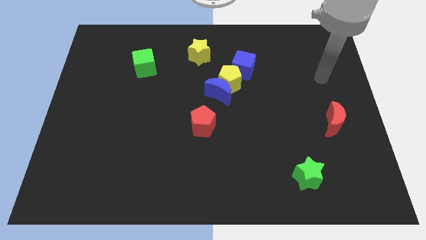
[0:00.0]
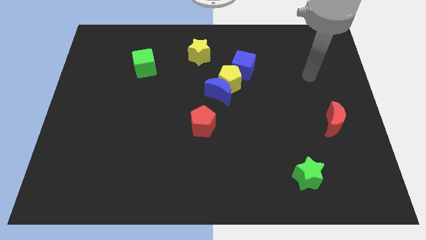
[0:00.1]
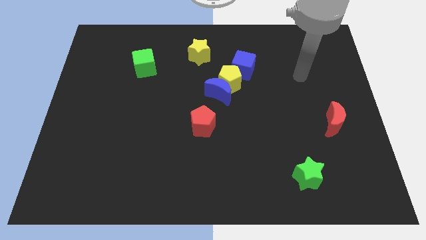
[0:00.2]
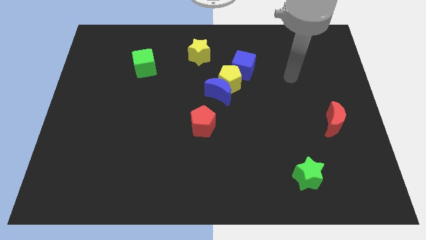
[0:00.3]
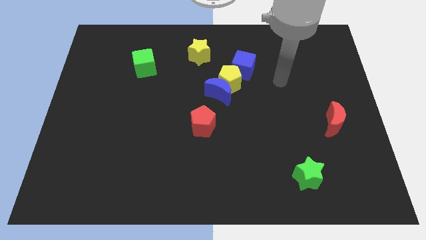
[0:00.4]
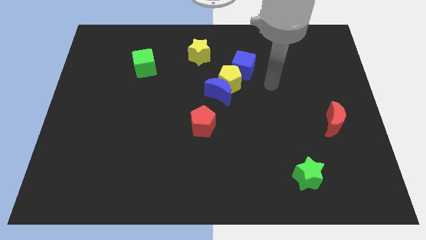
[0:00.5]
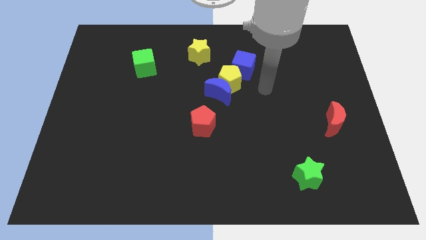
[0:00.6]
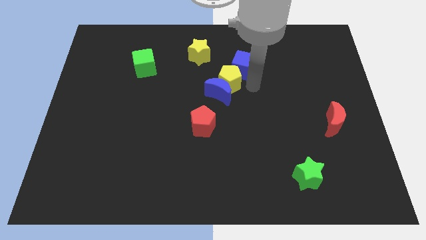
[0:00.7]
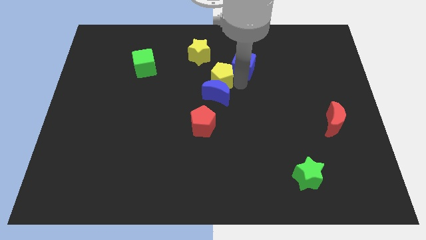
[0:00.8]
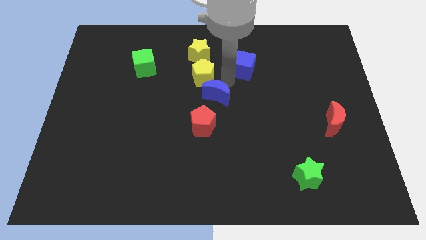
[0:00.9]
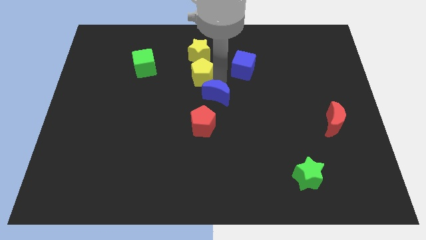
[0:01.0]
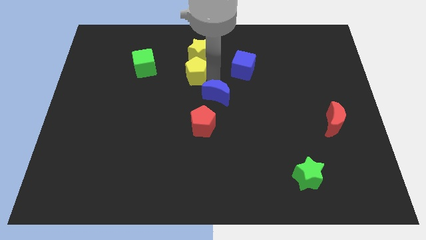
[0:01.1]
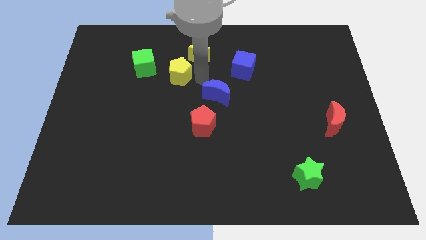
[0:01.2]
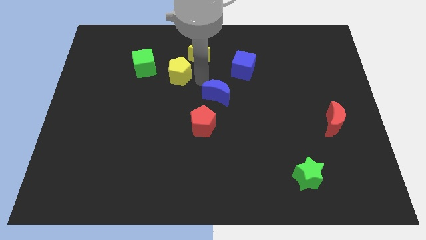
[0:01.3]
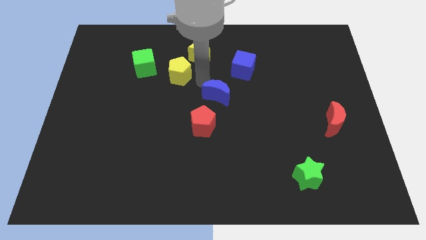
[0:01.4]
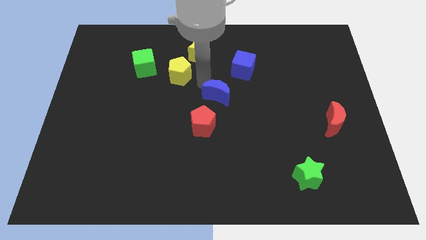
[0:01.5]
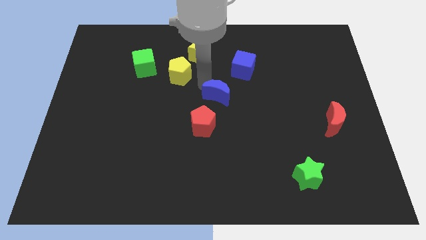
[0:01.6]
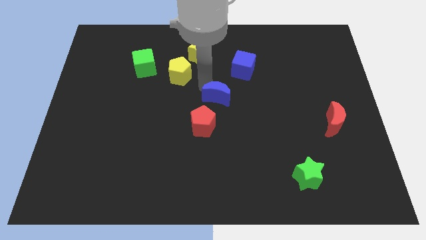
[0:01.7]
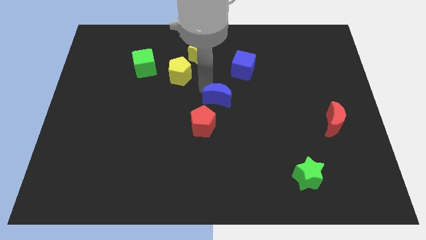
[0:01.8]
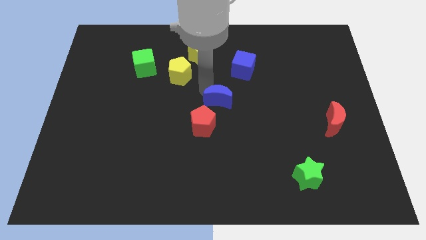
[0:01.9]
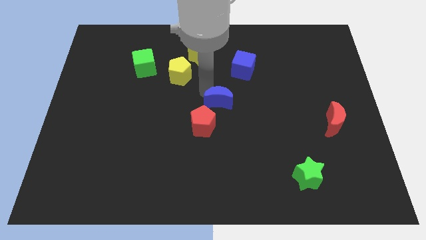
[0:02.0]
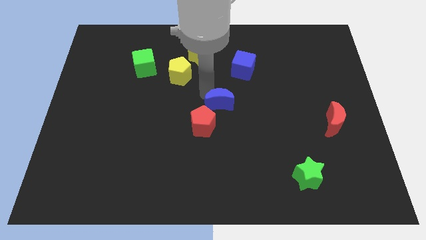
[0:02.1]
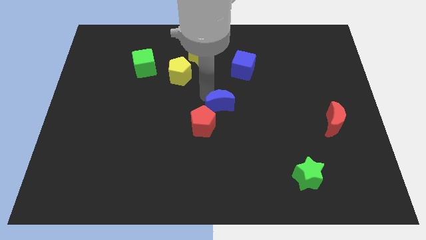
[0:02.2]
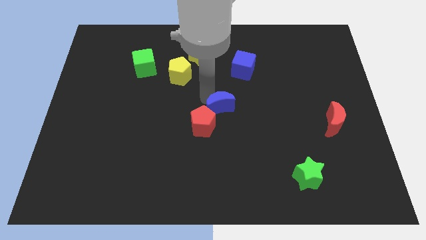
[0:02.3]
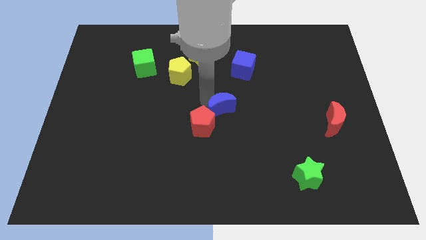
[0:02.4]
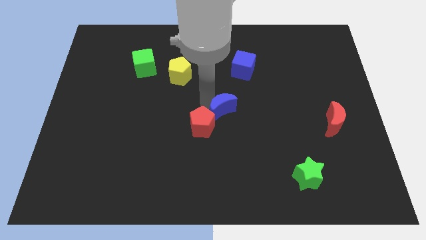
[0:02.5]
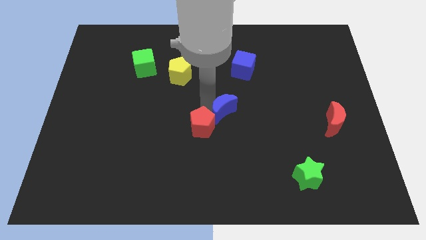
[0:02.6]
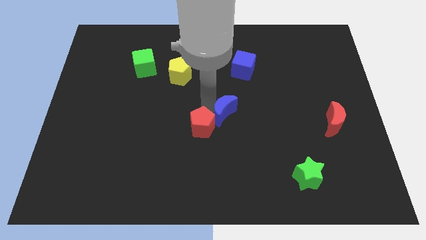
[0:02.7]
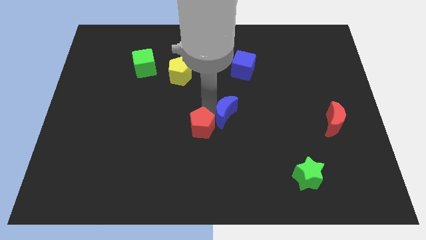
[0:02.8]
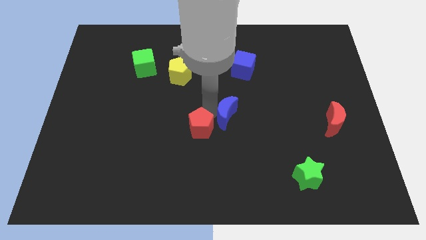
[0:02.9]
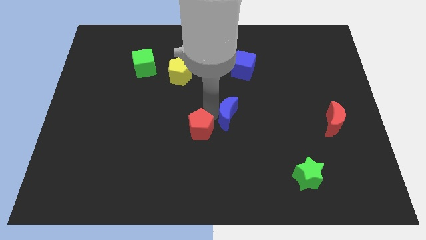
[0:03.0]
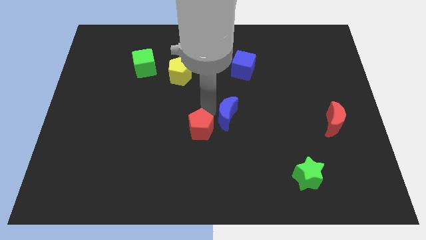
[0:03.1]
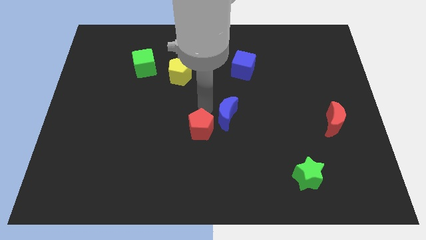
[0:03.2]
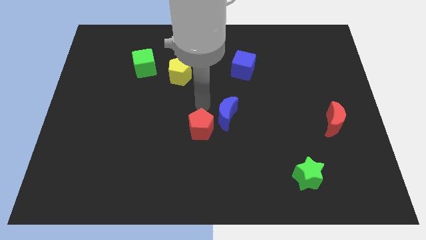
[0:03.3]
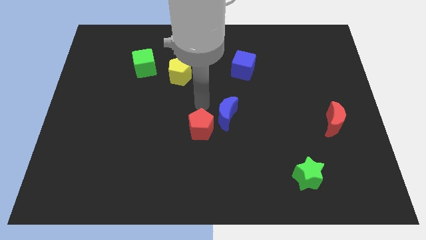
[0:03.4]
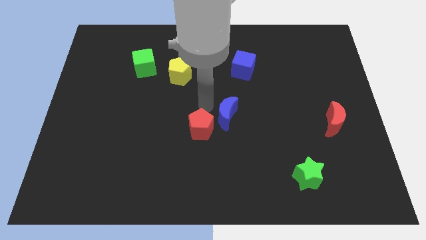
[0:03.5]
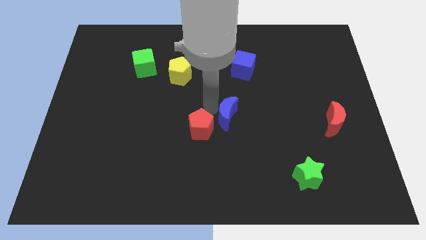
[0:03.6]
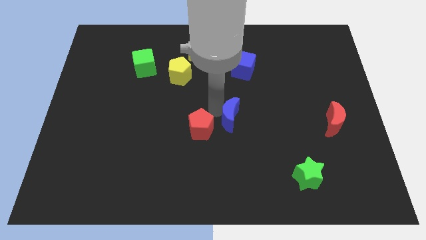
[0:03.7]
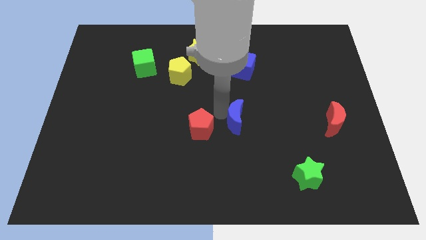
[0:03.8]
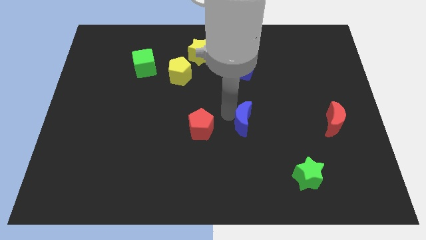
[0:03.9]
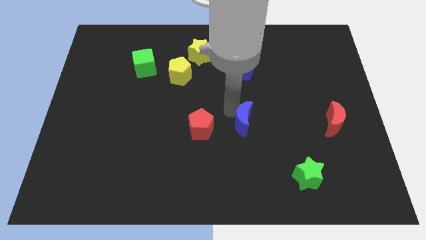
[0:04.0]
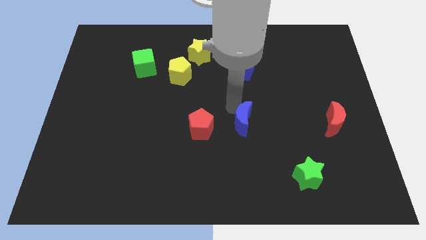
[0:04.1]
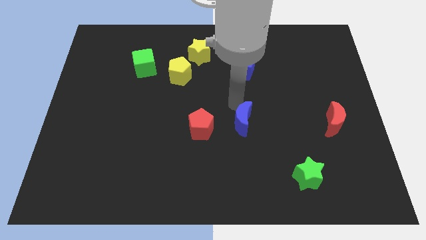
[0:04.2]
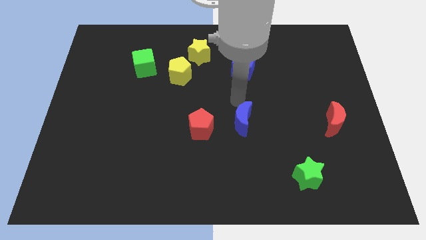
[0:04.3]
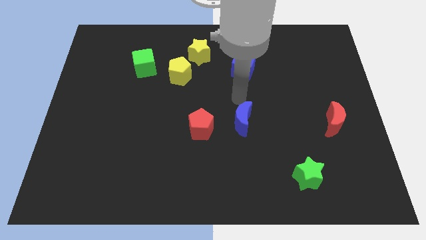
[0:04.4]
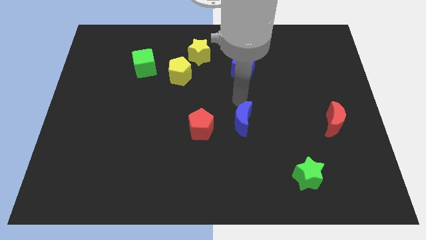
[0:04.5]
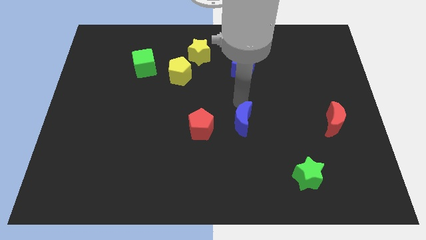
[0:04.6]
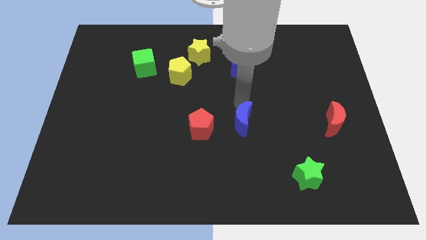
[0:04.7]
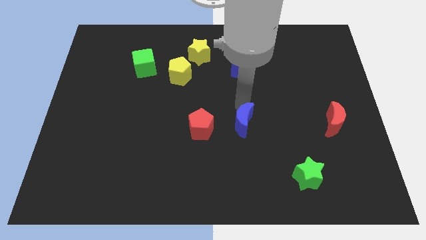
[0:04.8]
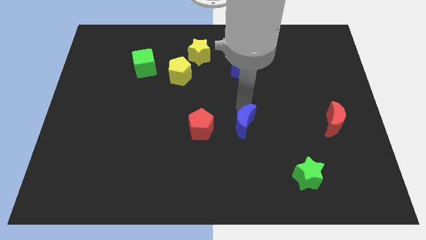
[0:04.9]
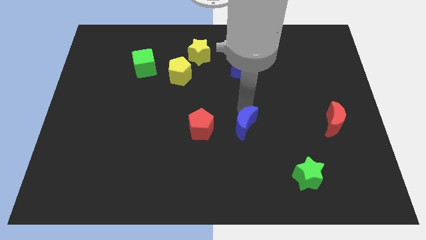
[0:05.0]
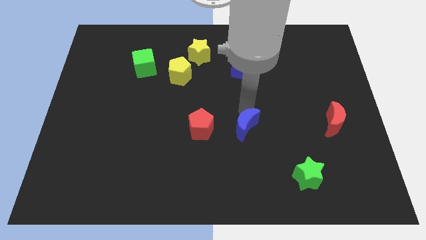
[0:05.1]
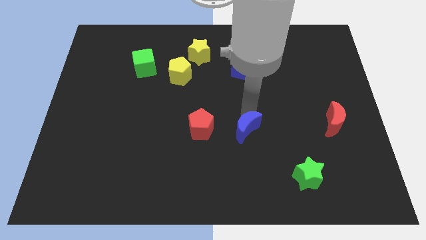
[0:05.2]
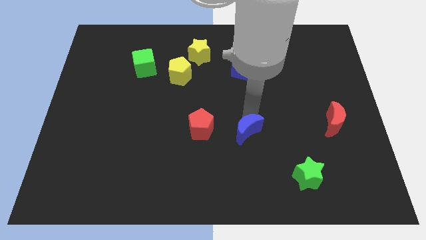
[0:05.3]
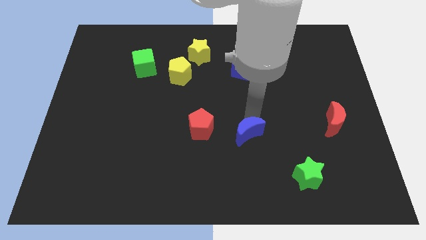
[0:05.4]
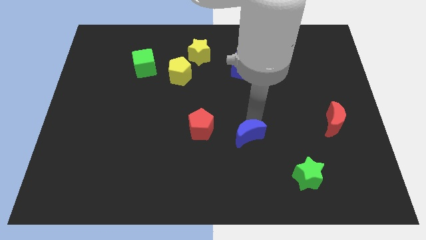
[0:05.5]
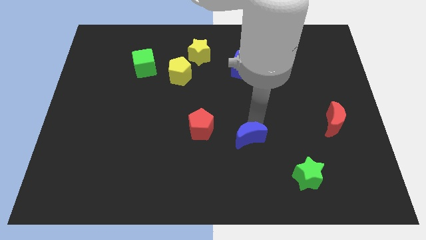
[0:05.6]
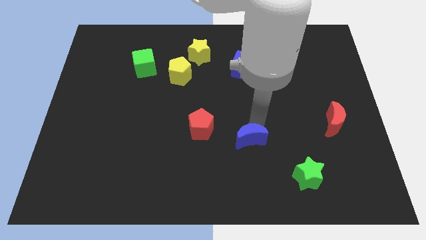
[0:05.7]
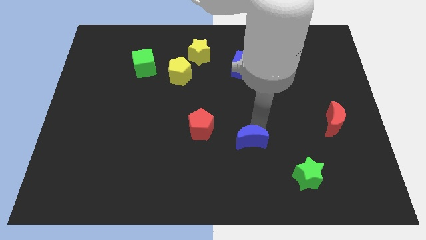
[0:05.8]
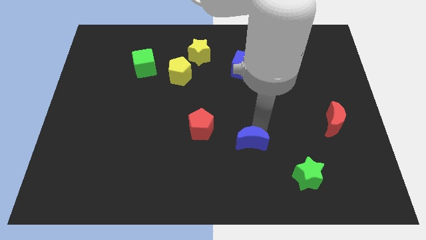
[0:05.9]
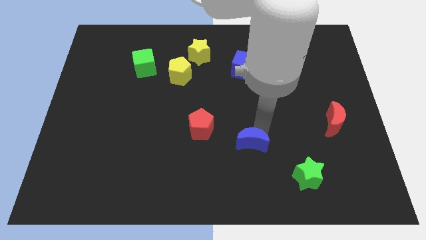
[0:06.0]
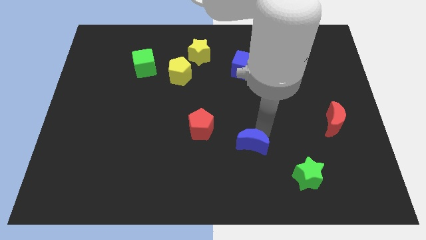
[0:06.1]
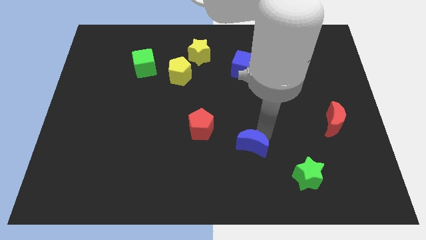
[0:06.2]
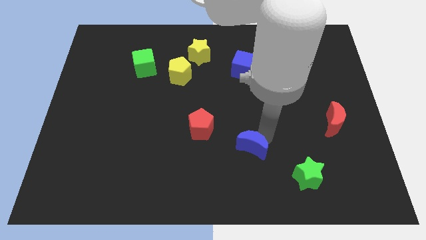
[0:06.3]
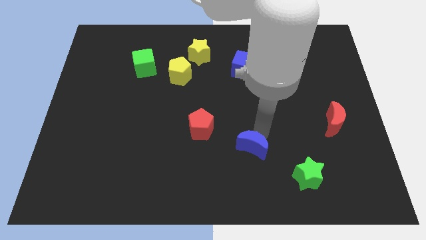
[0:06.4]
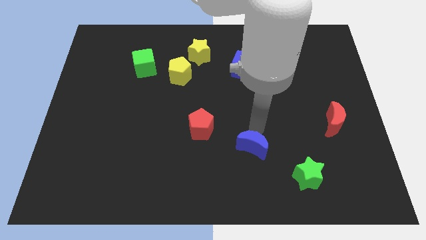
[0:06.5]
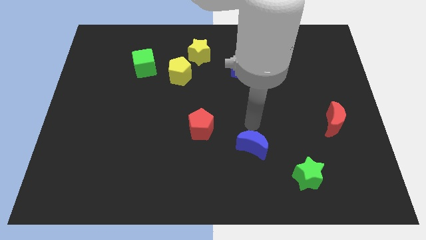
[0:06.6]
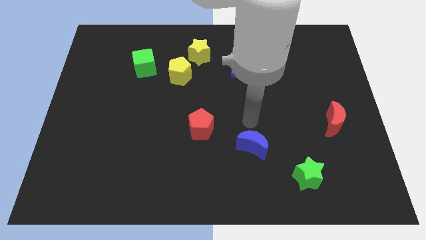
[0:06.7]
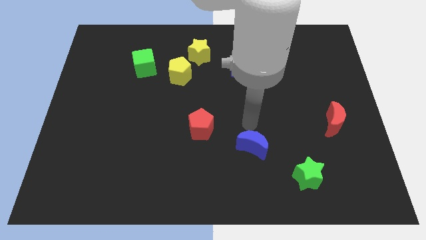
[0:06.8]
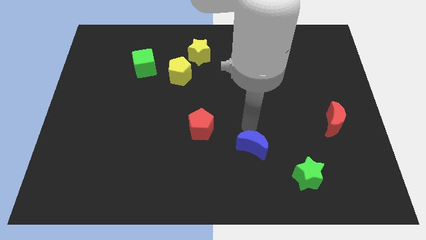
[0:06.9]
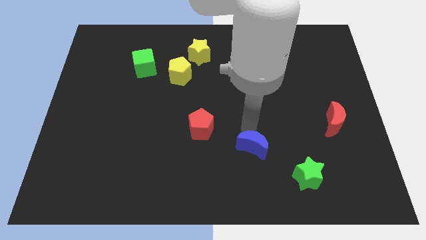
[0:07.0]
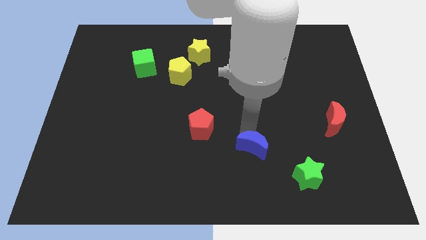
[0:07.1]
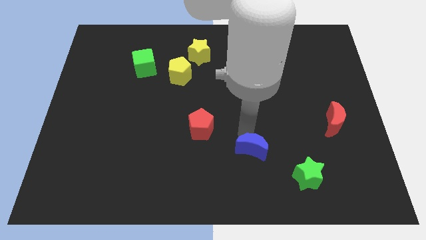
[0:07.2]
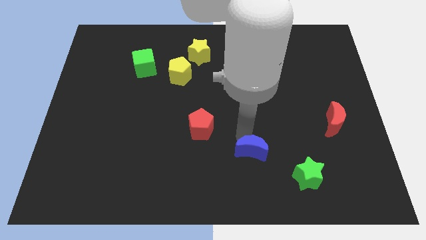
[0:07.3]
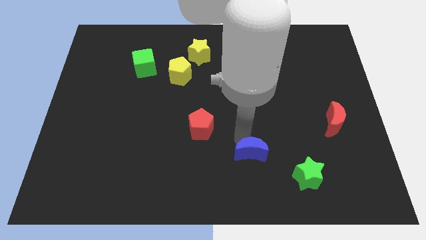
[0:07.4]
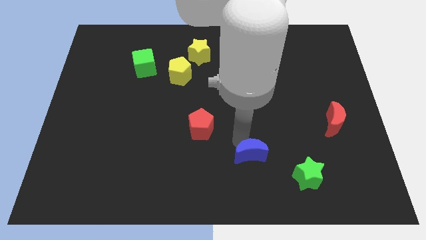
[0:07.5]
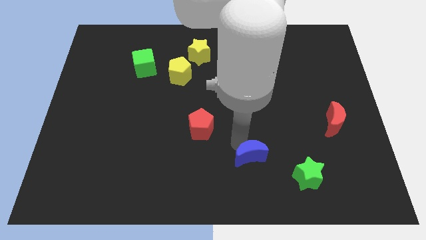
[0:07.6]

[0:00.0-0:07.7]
put the blue moon just left of the green star

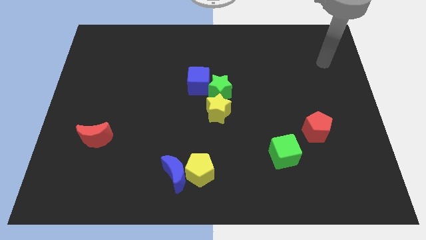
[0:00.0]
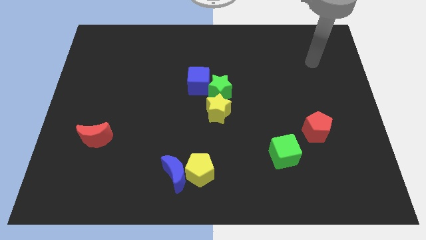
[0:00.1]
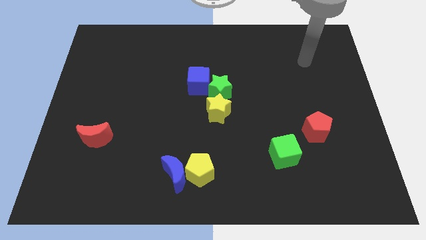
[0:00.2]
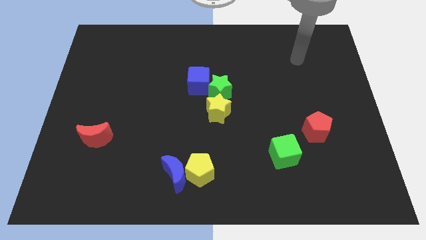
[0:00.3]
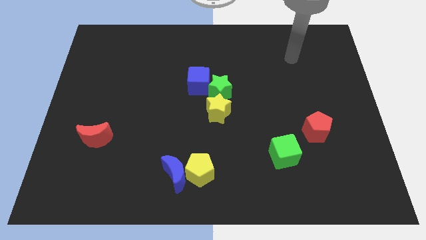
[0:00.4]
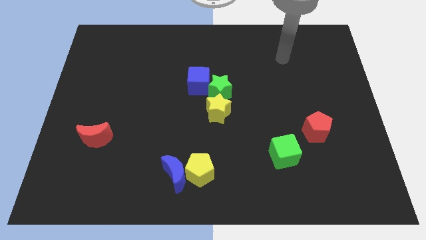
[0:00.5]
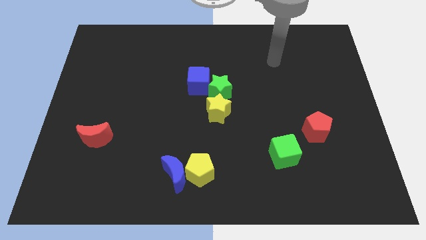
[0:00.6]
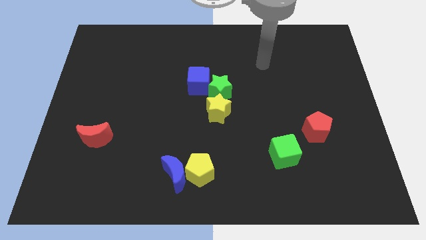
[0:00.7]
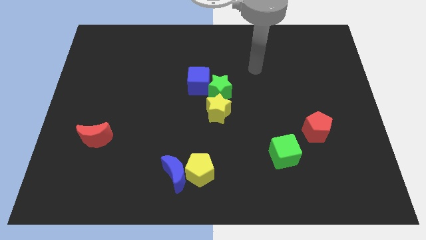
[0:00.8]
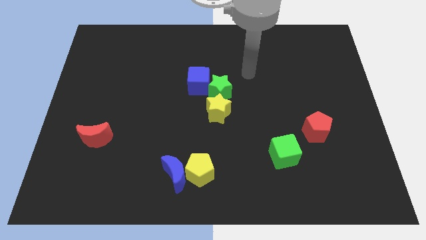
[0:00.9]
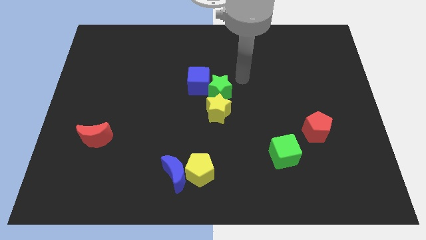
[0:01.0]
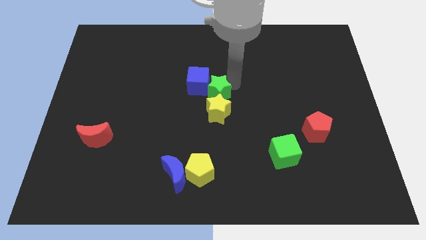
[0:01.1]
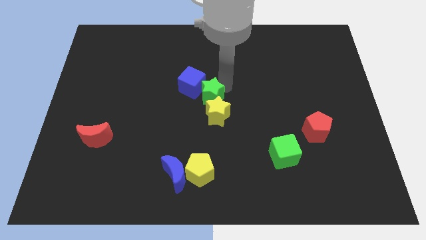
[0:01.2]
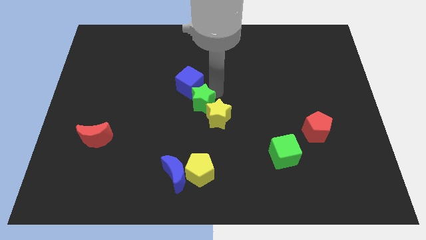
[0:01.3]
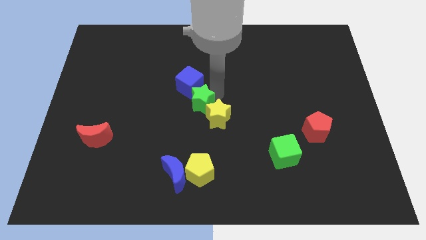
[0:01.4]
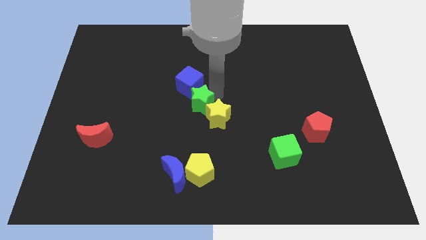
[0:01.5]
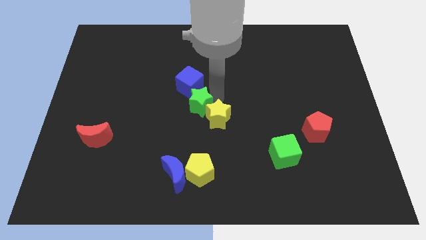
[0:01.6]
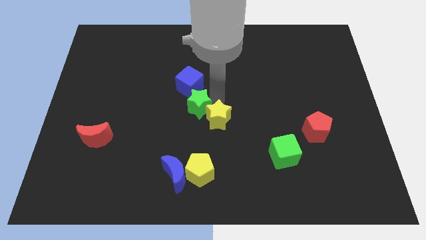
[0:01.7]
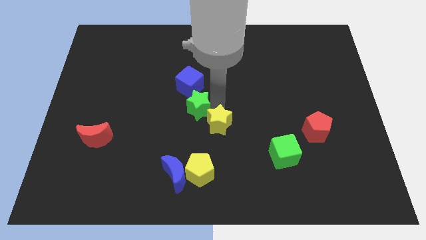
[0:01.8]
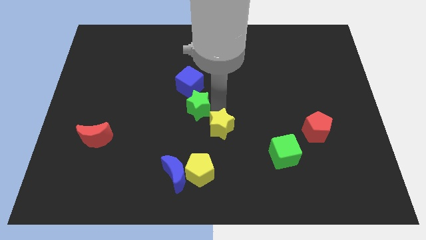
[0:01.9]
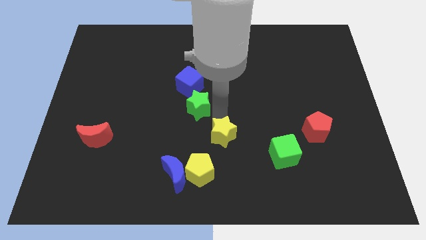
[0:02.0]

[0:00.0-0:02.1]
put the yellow star diagonally up and to the right of the yellow pentagon
